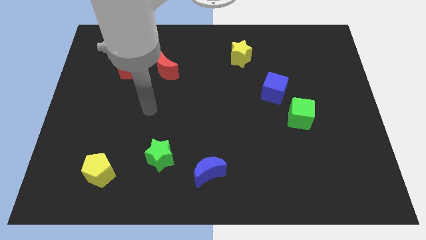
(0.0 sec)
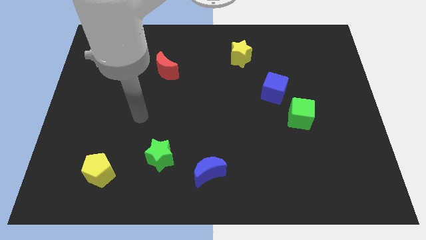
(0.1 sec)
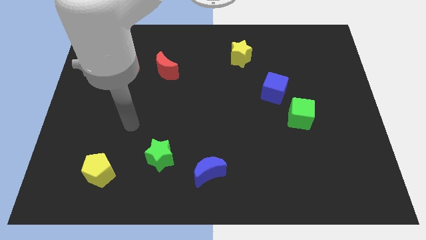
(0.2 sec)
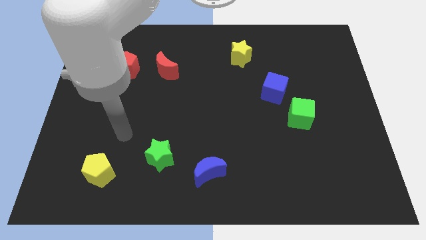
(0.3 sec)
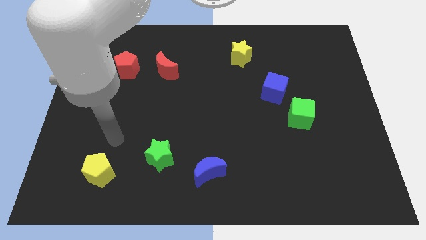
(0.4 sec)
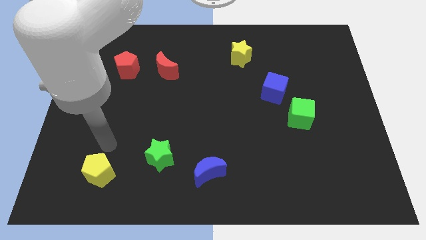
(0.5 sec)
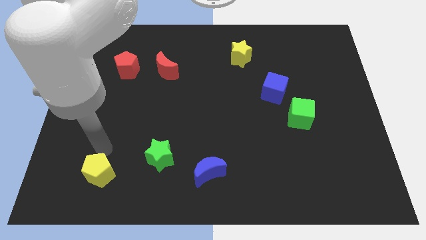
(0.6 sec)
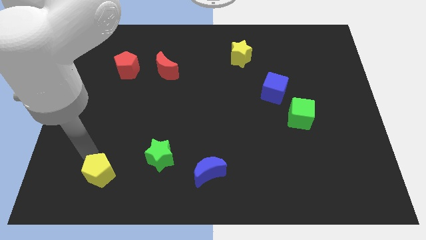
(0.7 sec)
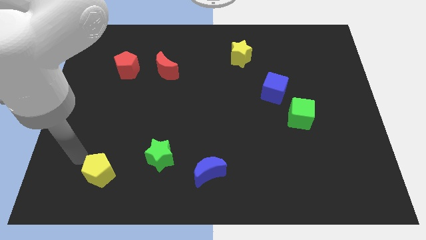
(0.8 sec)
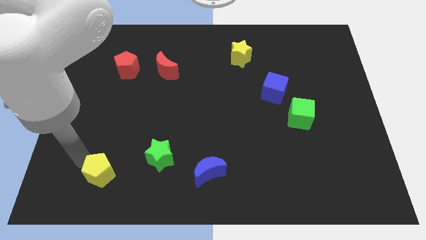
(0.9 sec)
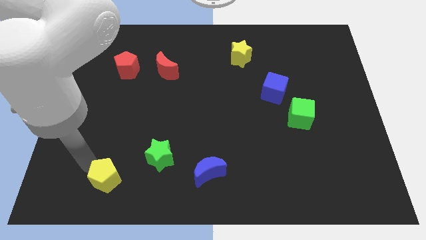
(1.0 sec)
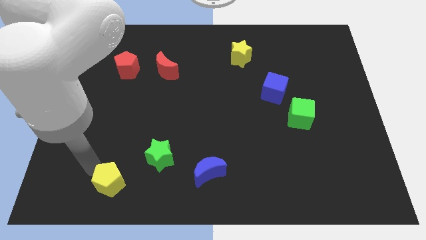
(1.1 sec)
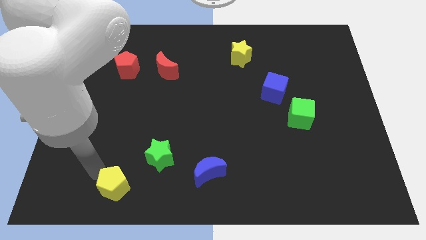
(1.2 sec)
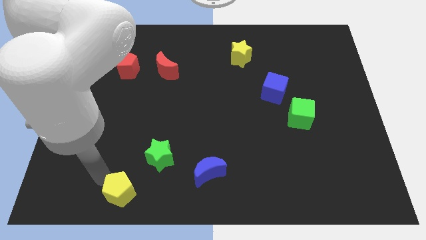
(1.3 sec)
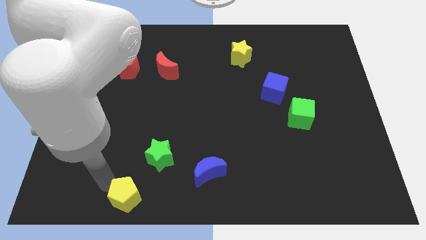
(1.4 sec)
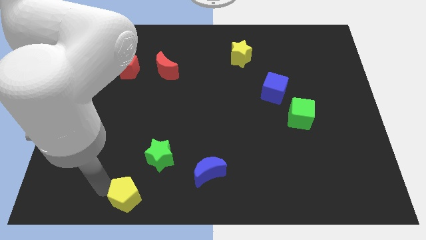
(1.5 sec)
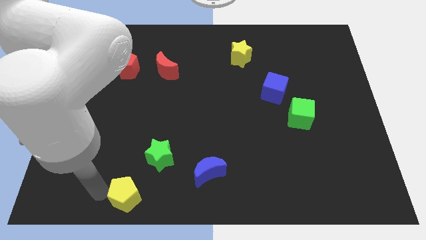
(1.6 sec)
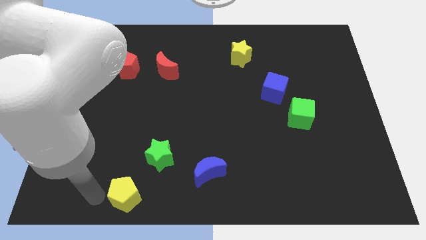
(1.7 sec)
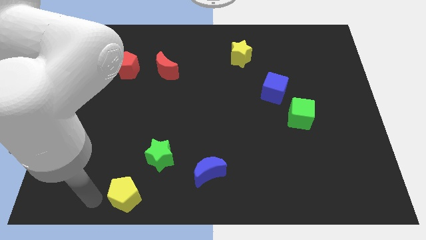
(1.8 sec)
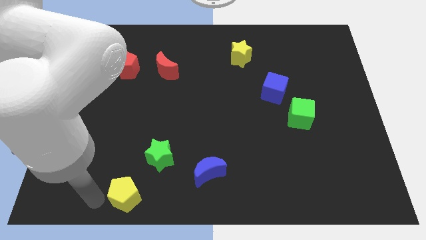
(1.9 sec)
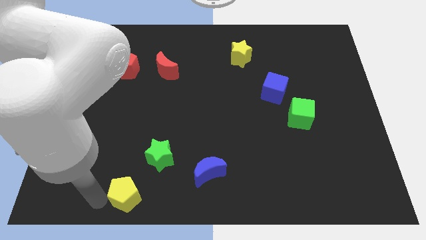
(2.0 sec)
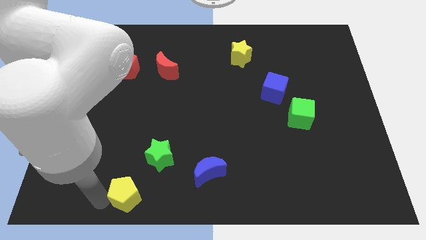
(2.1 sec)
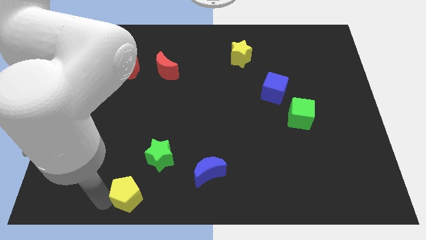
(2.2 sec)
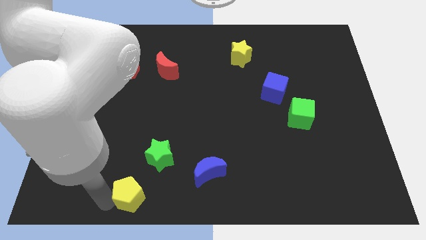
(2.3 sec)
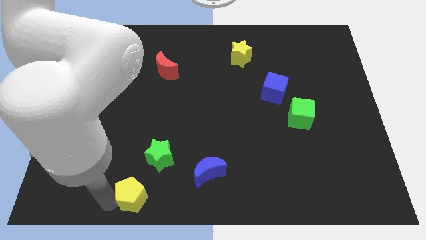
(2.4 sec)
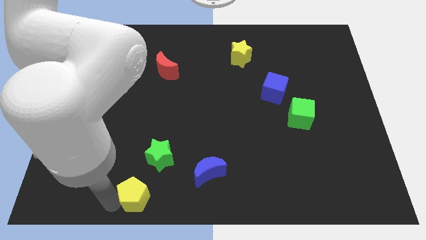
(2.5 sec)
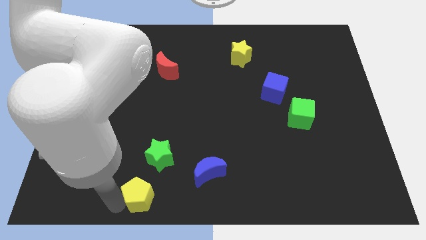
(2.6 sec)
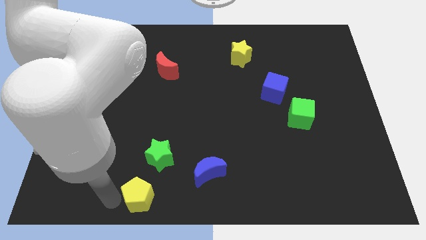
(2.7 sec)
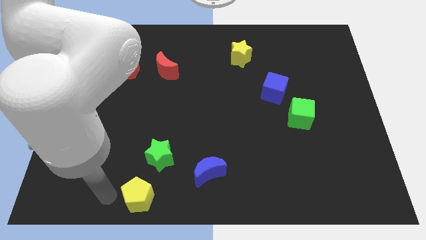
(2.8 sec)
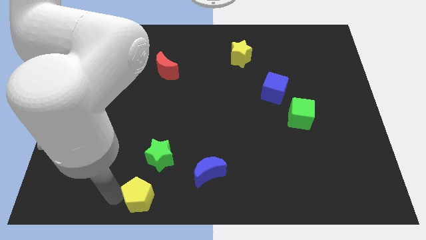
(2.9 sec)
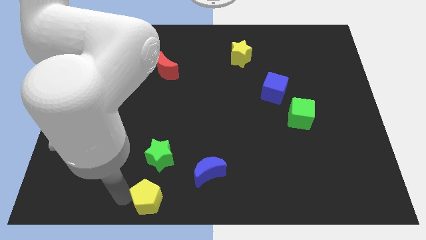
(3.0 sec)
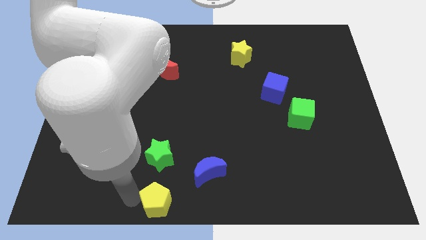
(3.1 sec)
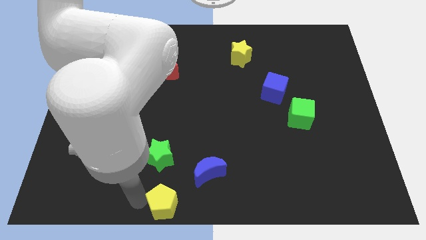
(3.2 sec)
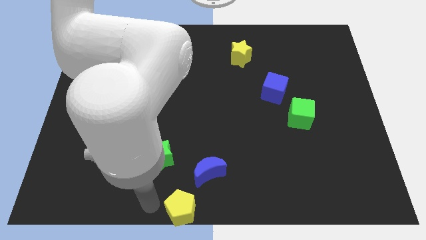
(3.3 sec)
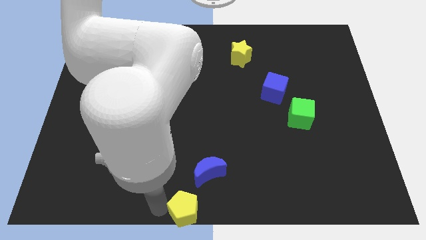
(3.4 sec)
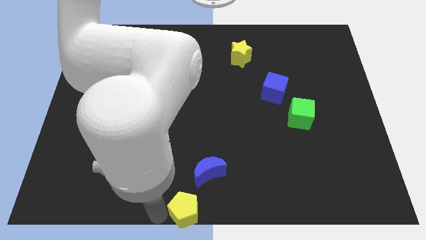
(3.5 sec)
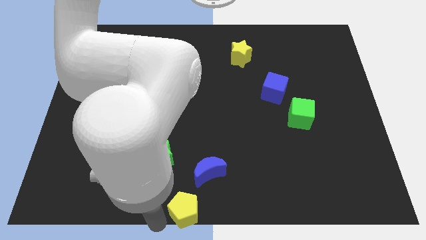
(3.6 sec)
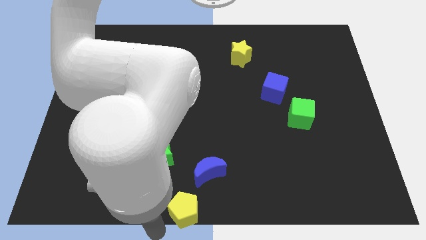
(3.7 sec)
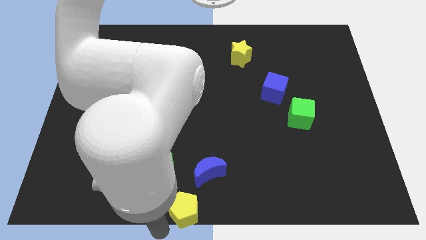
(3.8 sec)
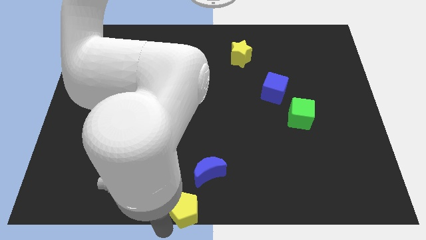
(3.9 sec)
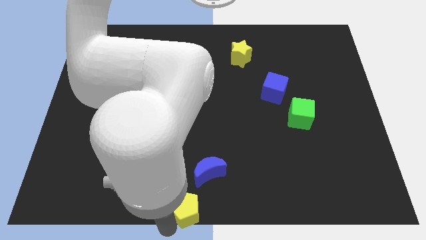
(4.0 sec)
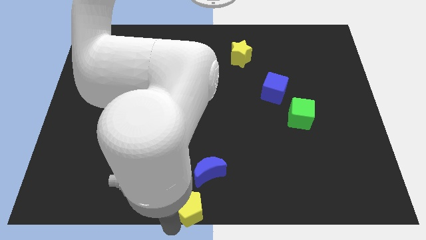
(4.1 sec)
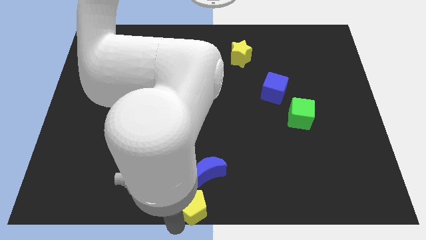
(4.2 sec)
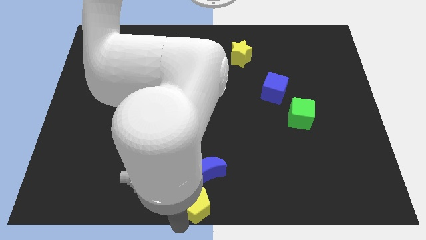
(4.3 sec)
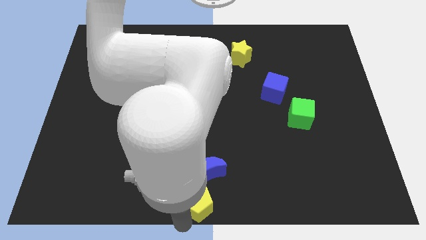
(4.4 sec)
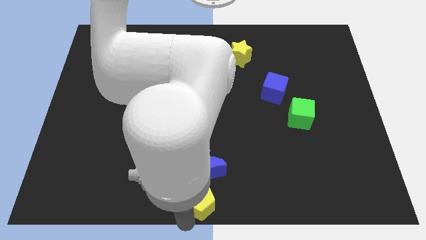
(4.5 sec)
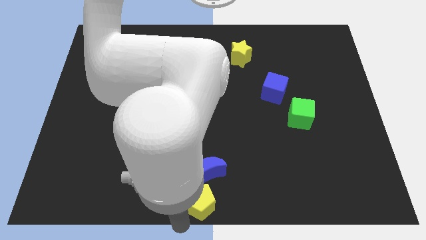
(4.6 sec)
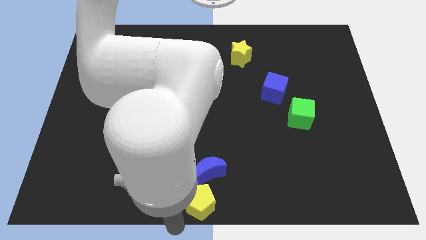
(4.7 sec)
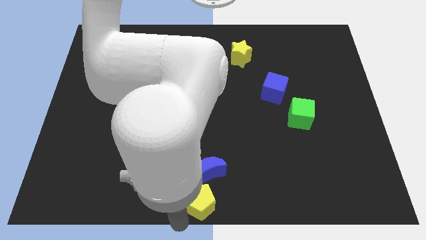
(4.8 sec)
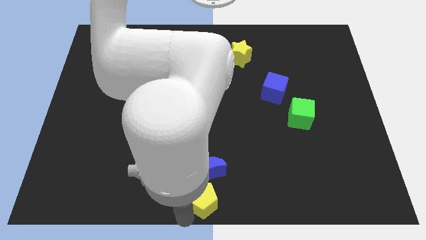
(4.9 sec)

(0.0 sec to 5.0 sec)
push the yellow pentagon right

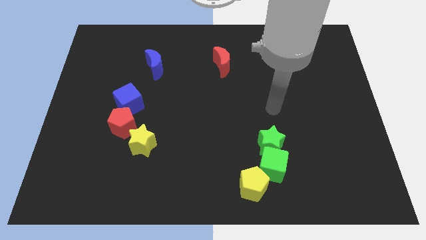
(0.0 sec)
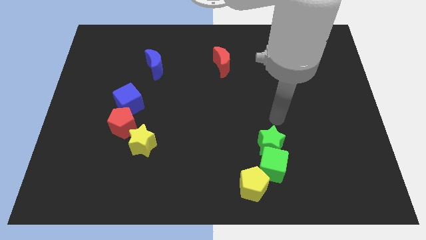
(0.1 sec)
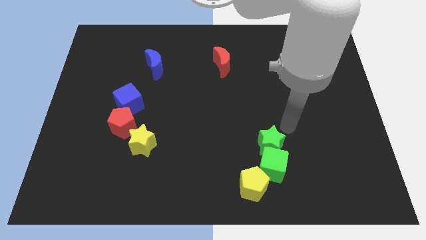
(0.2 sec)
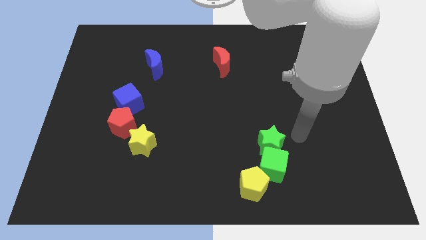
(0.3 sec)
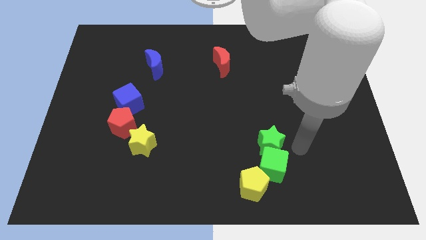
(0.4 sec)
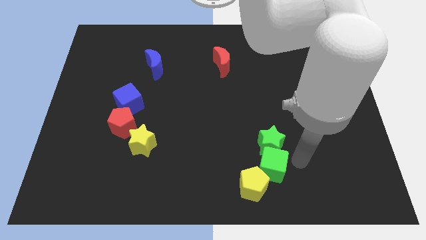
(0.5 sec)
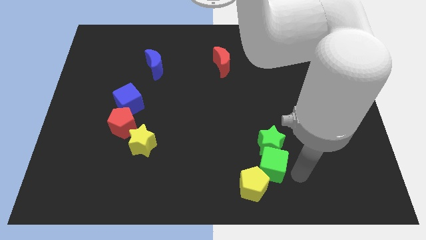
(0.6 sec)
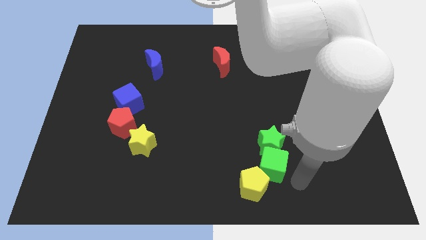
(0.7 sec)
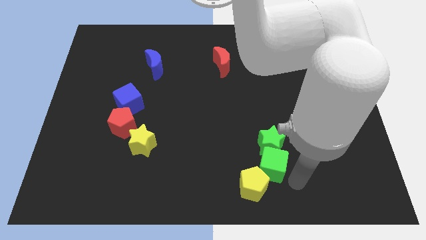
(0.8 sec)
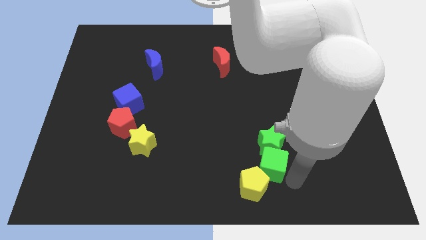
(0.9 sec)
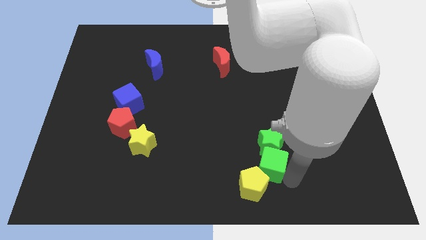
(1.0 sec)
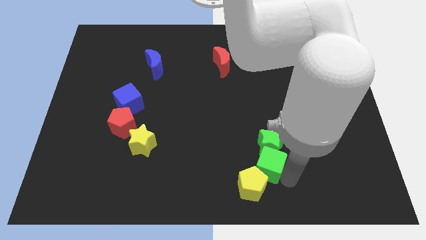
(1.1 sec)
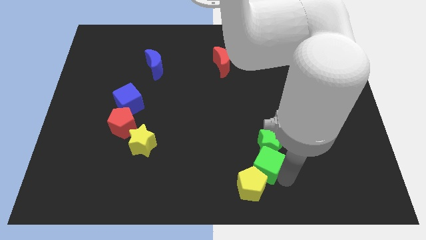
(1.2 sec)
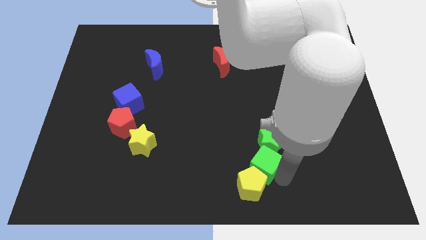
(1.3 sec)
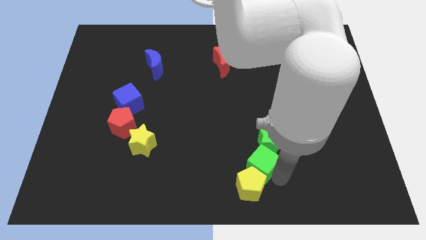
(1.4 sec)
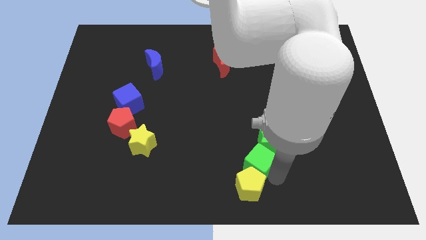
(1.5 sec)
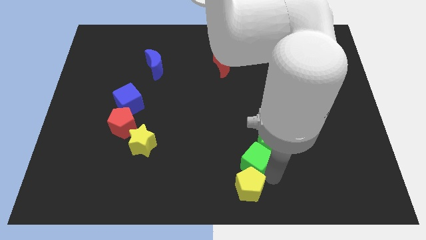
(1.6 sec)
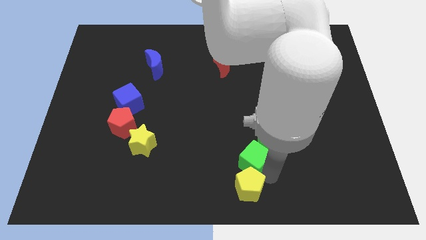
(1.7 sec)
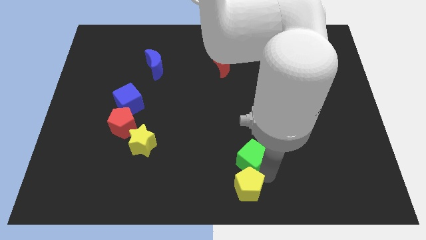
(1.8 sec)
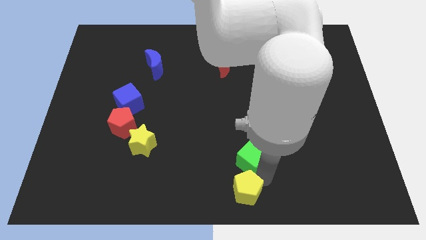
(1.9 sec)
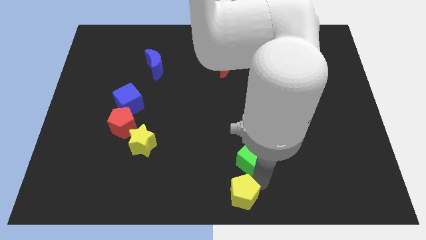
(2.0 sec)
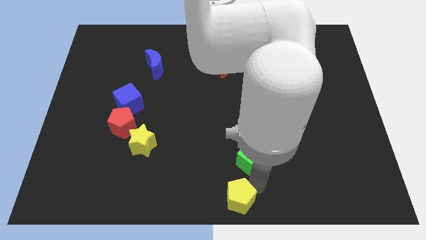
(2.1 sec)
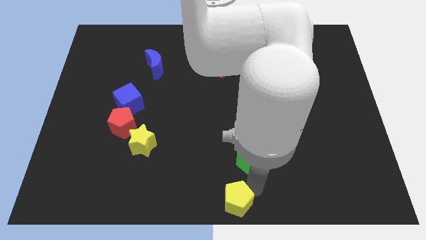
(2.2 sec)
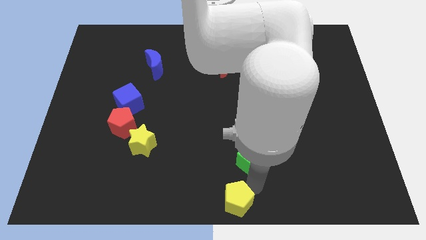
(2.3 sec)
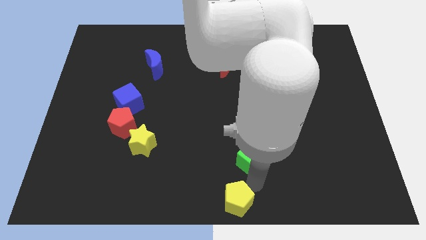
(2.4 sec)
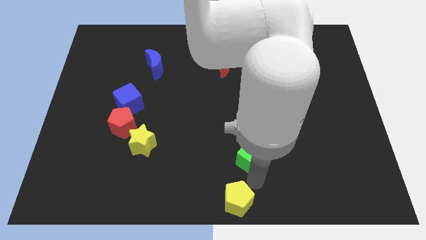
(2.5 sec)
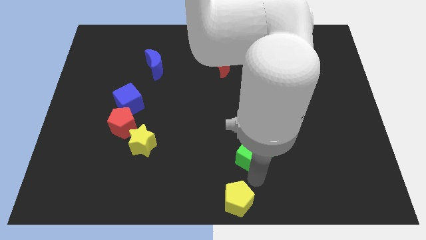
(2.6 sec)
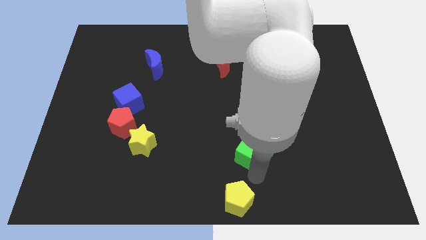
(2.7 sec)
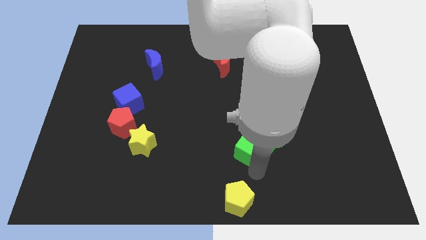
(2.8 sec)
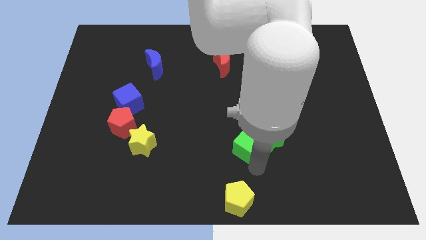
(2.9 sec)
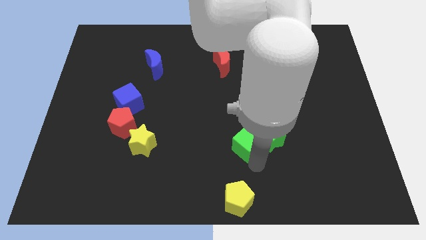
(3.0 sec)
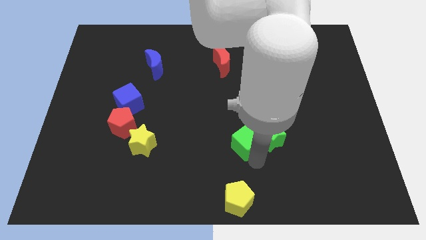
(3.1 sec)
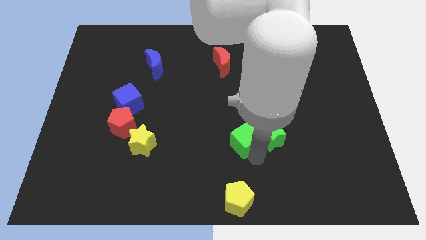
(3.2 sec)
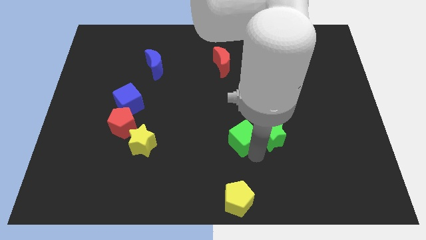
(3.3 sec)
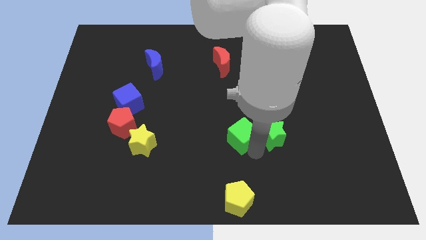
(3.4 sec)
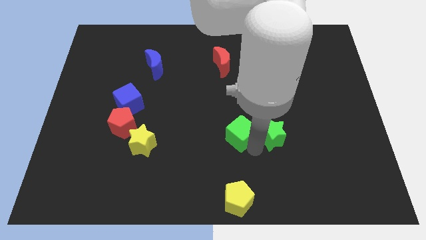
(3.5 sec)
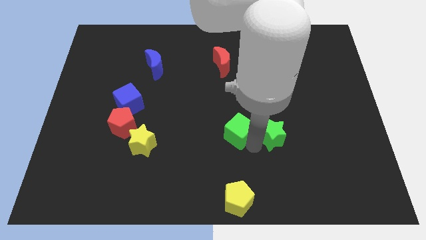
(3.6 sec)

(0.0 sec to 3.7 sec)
slide the green cube somewhat up
